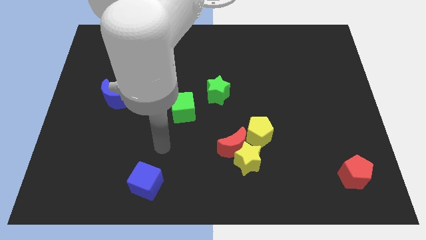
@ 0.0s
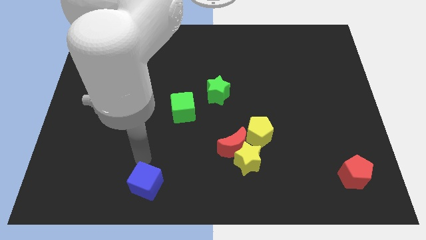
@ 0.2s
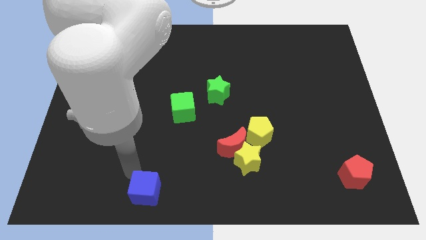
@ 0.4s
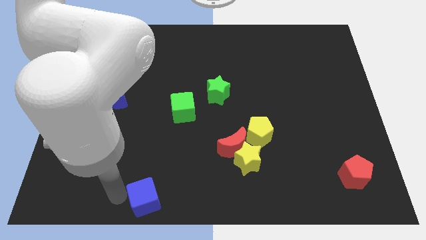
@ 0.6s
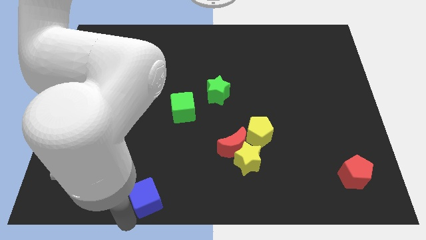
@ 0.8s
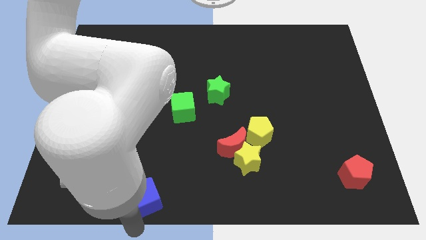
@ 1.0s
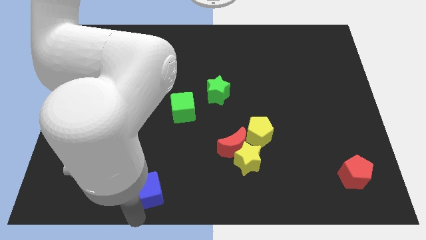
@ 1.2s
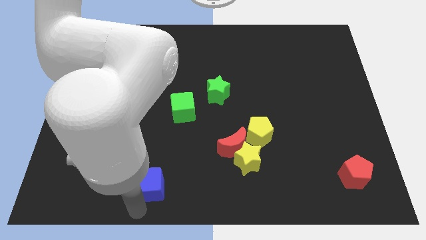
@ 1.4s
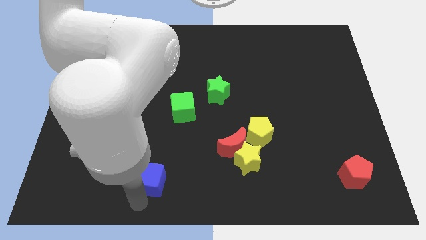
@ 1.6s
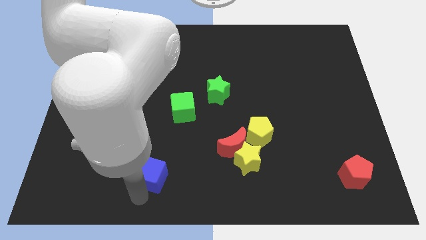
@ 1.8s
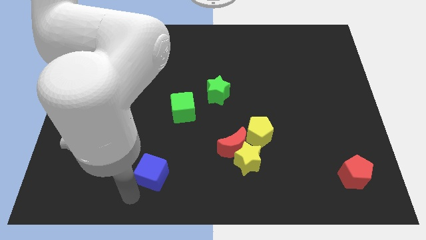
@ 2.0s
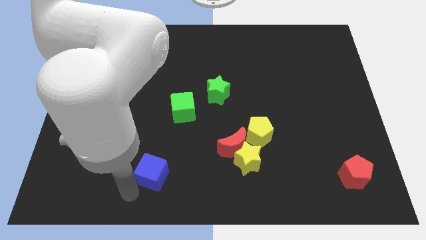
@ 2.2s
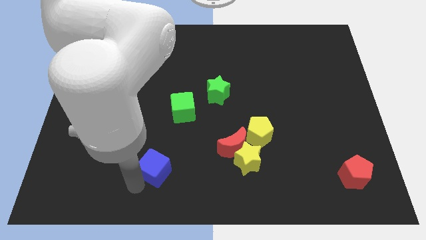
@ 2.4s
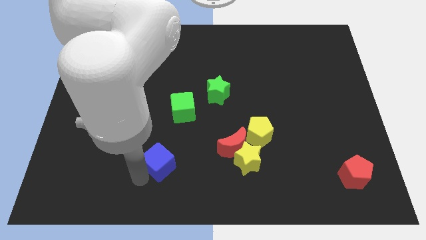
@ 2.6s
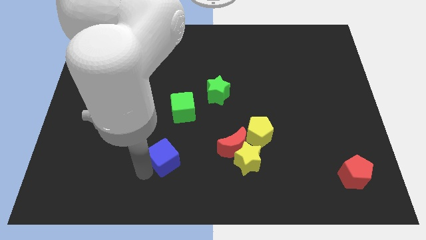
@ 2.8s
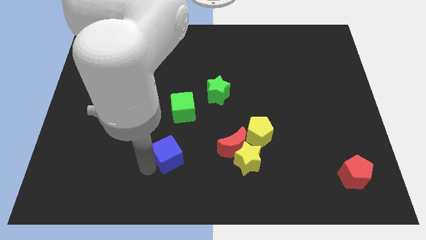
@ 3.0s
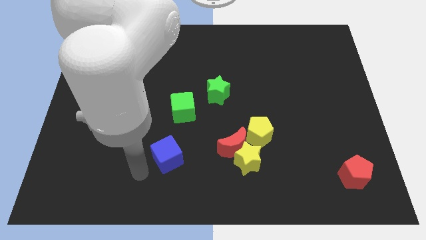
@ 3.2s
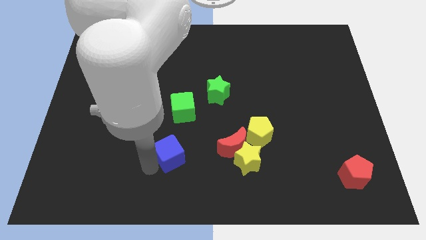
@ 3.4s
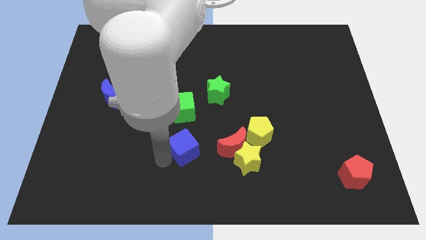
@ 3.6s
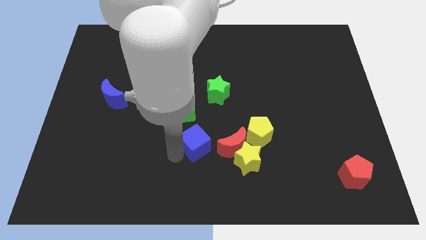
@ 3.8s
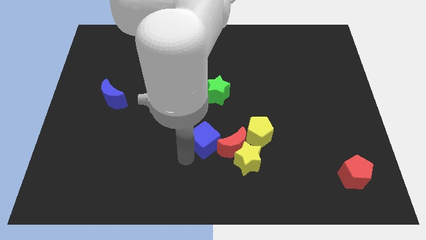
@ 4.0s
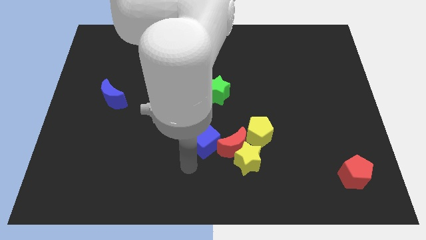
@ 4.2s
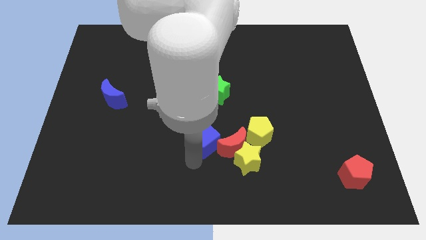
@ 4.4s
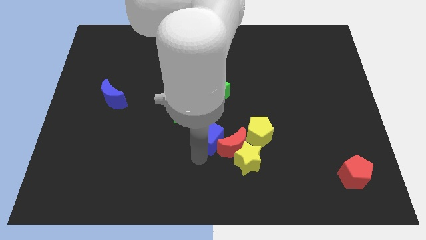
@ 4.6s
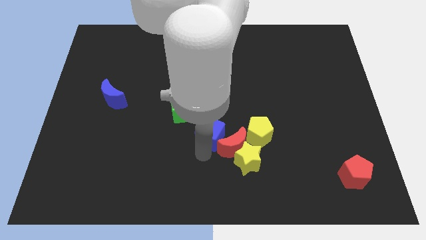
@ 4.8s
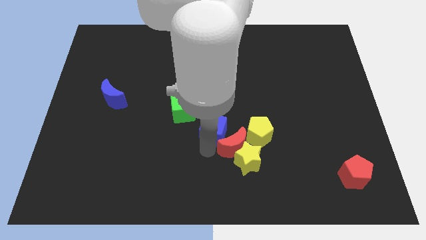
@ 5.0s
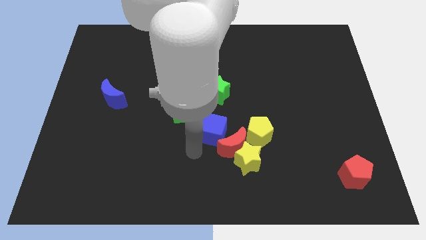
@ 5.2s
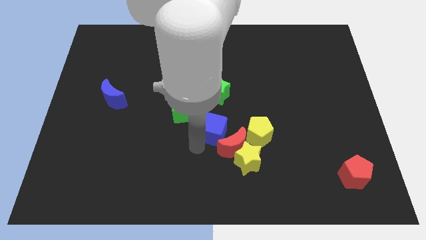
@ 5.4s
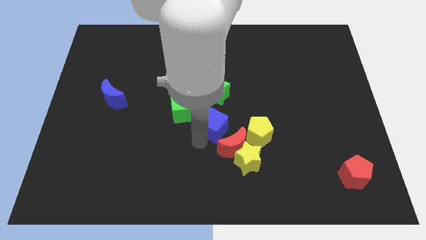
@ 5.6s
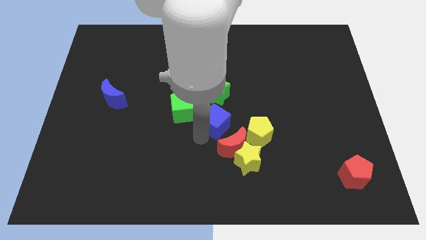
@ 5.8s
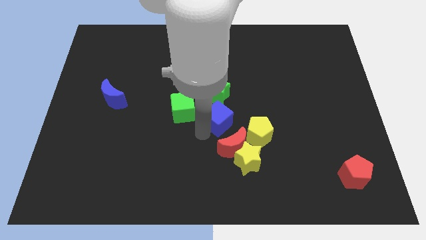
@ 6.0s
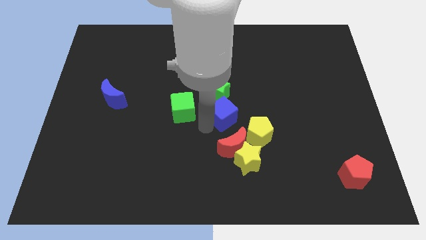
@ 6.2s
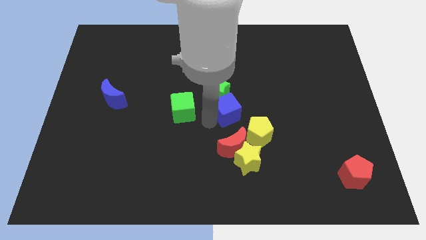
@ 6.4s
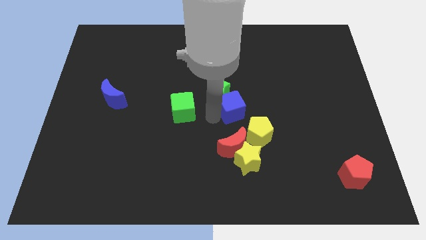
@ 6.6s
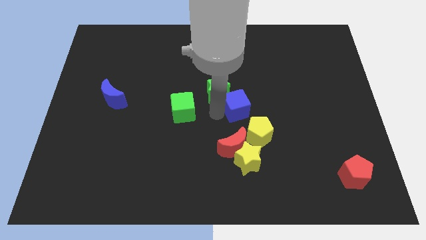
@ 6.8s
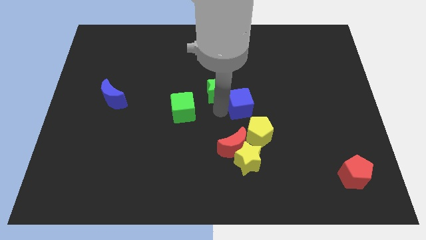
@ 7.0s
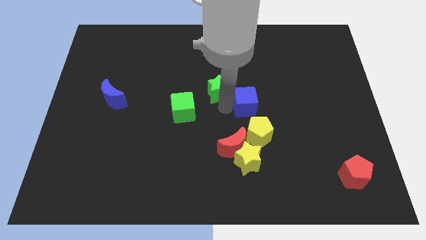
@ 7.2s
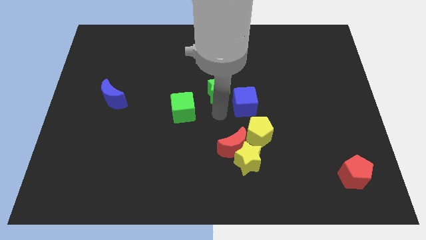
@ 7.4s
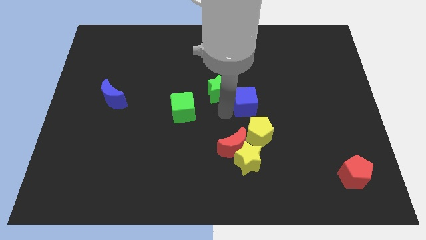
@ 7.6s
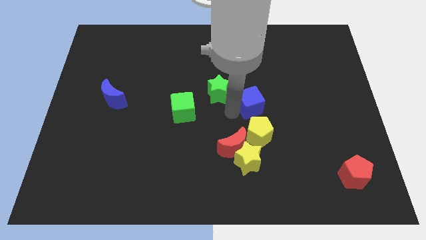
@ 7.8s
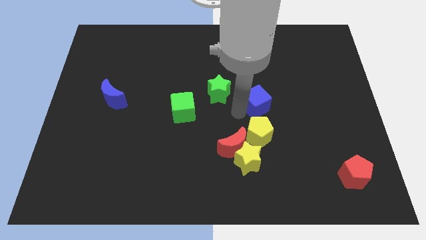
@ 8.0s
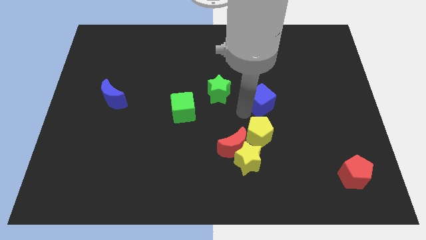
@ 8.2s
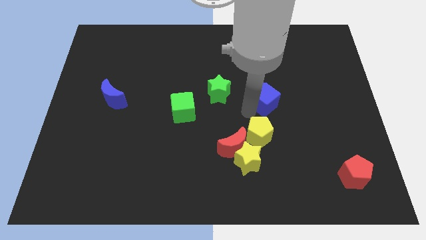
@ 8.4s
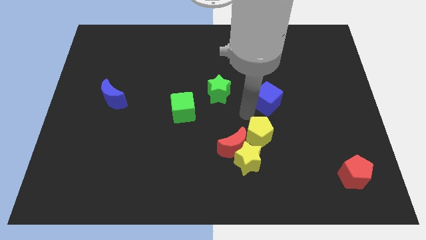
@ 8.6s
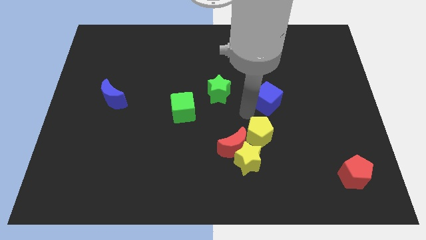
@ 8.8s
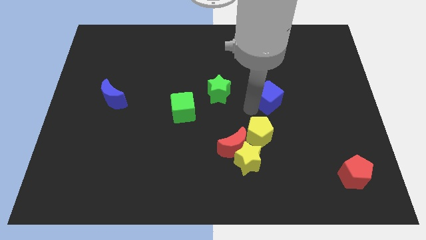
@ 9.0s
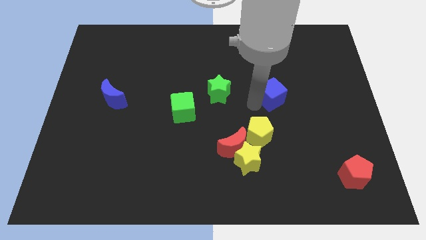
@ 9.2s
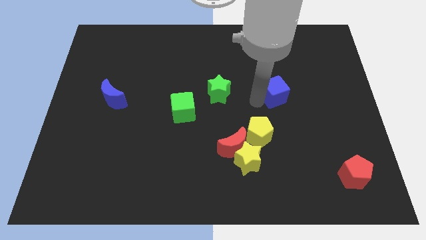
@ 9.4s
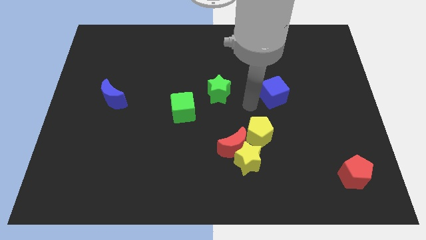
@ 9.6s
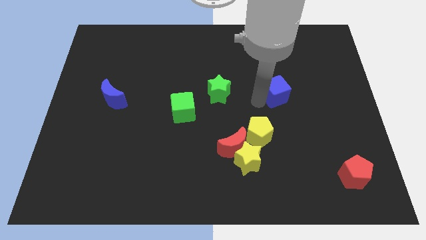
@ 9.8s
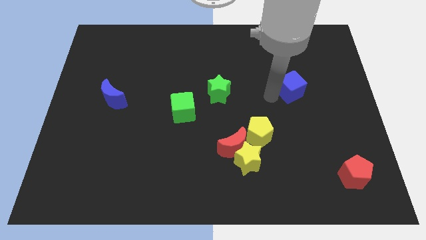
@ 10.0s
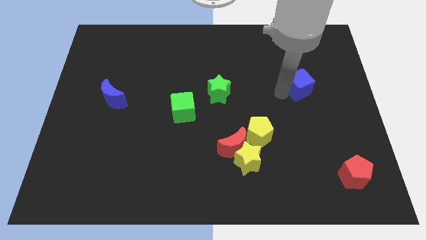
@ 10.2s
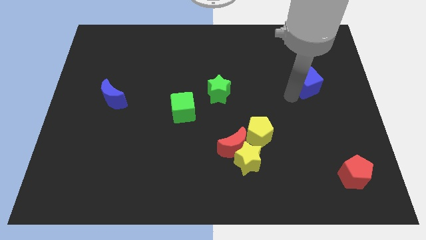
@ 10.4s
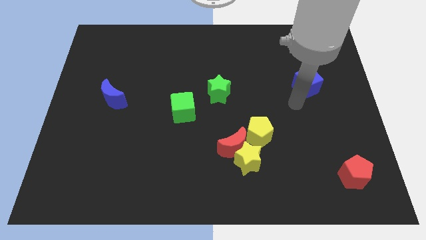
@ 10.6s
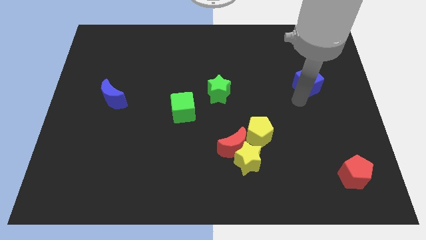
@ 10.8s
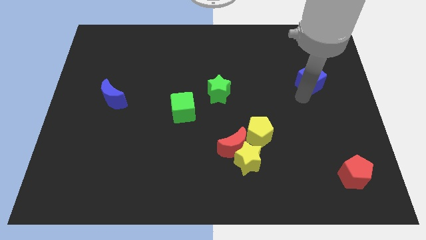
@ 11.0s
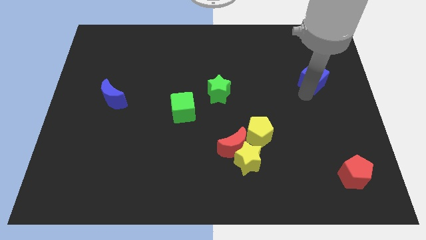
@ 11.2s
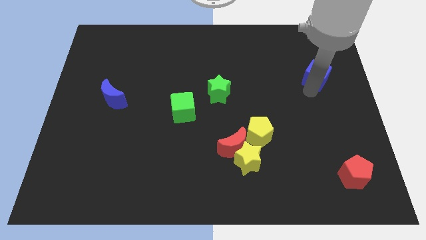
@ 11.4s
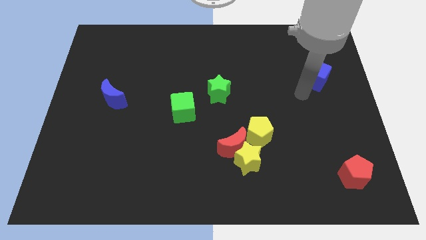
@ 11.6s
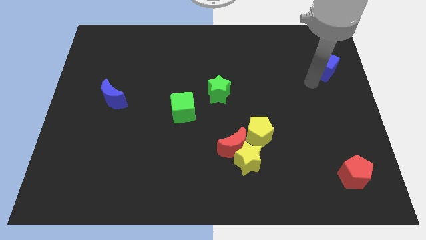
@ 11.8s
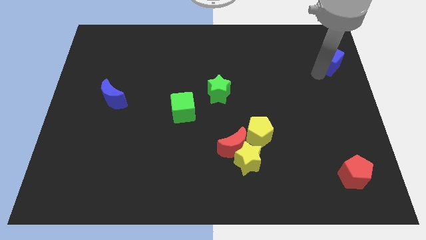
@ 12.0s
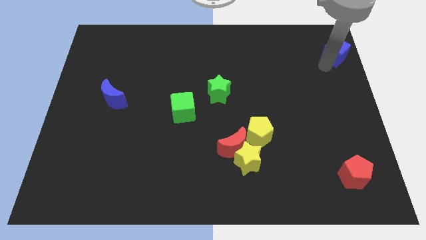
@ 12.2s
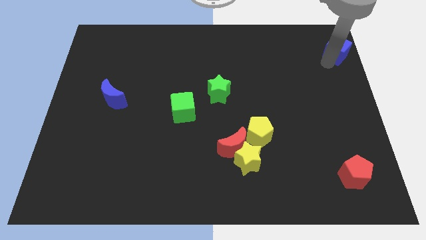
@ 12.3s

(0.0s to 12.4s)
slide the blue cube to the upper right corner
